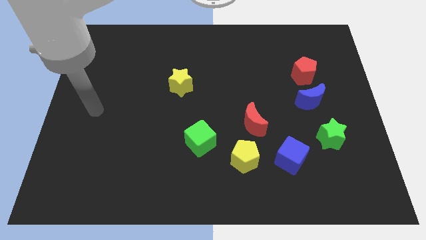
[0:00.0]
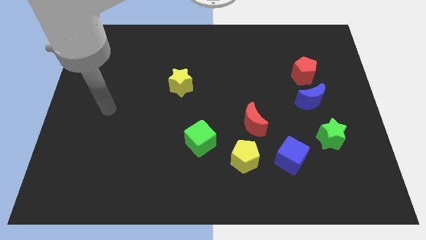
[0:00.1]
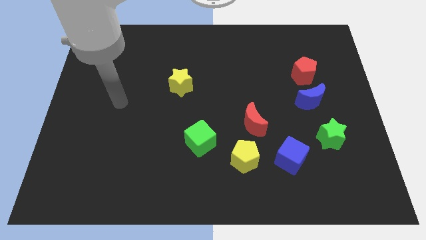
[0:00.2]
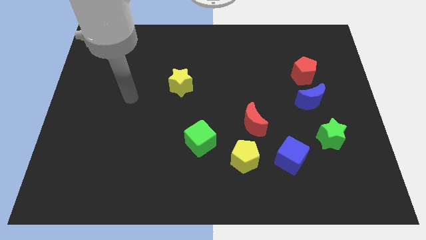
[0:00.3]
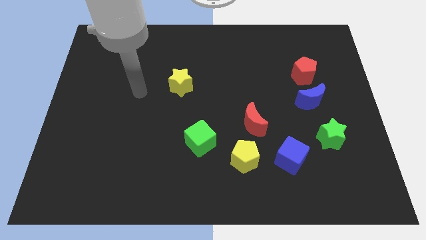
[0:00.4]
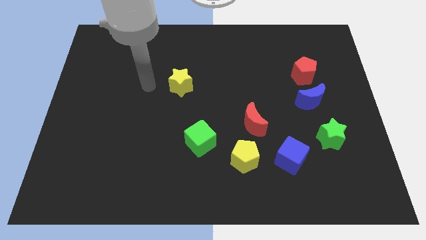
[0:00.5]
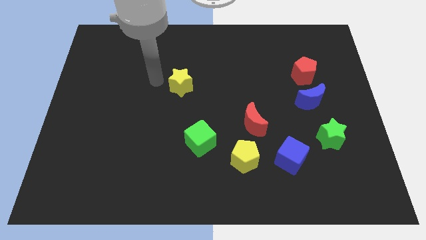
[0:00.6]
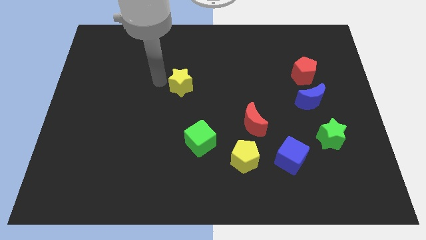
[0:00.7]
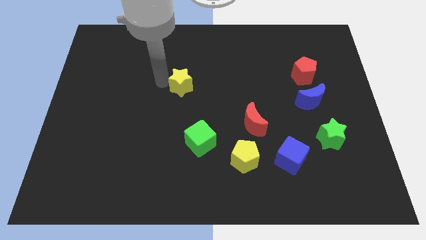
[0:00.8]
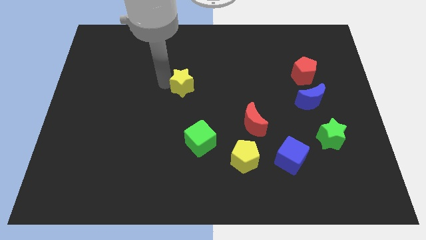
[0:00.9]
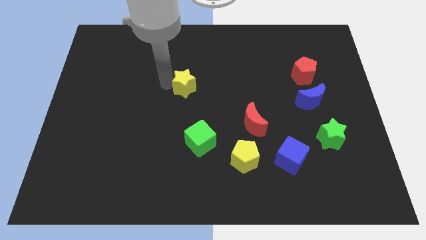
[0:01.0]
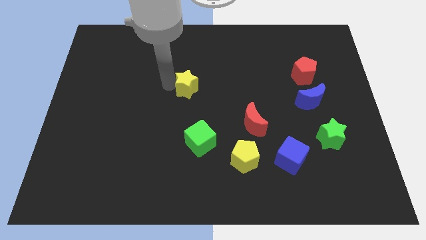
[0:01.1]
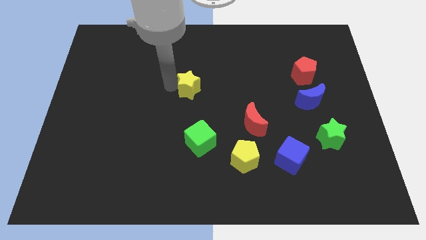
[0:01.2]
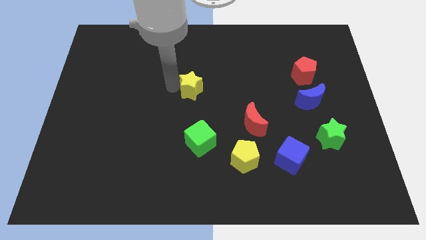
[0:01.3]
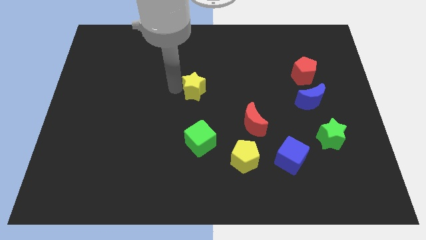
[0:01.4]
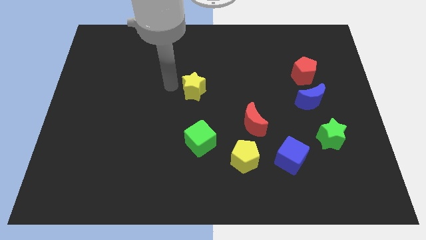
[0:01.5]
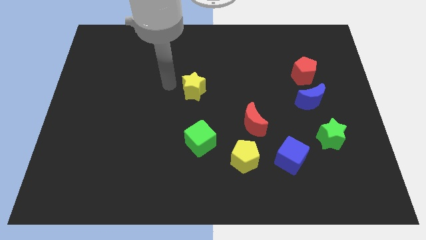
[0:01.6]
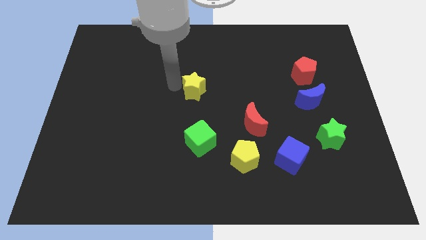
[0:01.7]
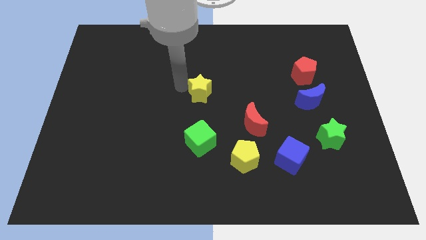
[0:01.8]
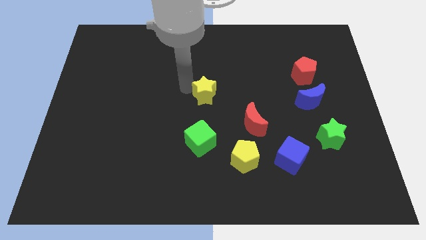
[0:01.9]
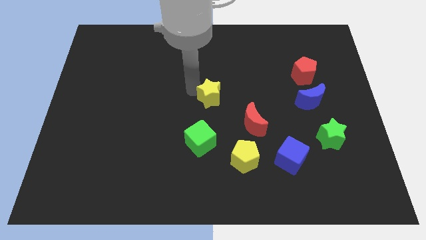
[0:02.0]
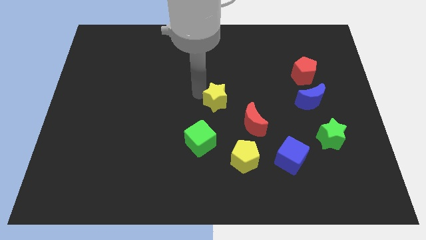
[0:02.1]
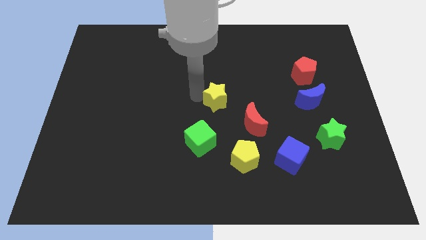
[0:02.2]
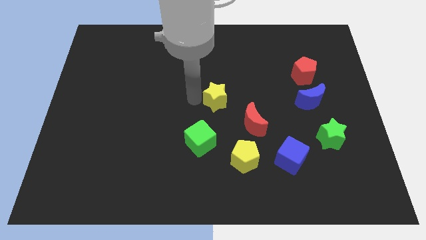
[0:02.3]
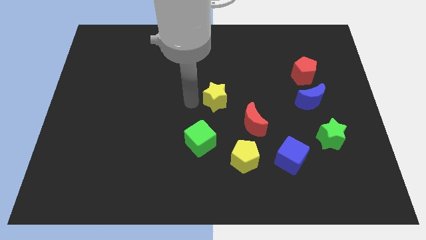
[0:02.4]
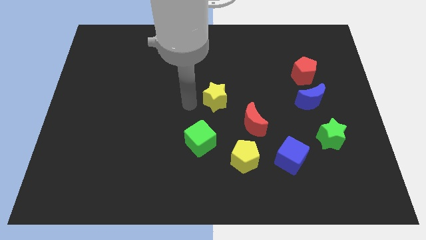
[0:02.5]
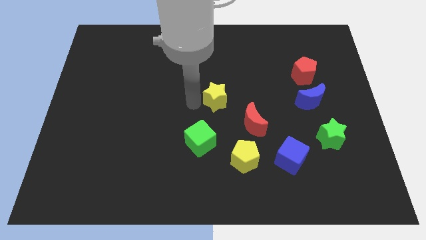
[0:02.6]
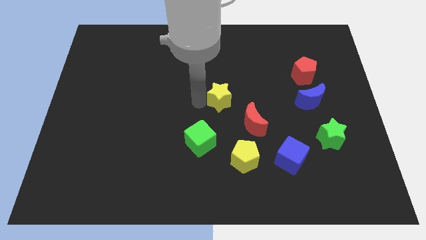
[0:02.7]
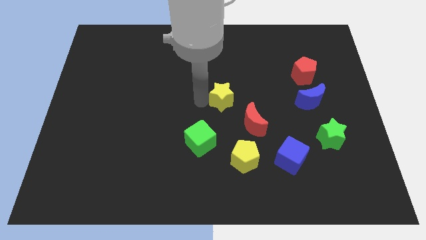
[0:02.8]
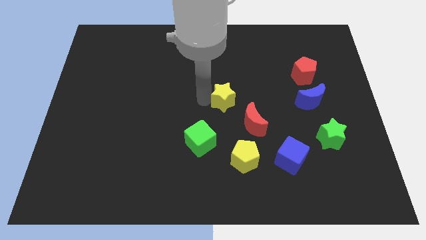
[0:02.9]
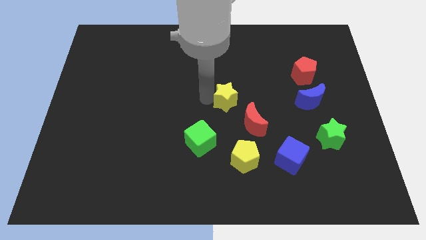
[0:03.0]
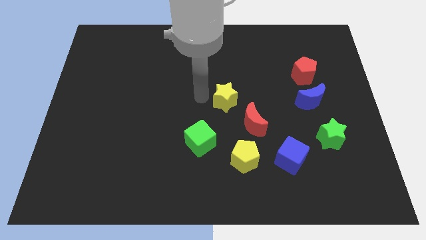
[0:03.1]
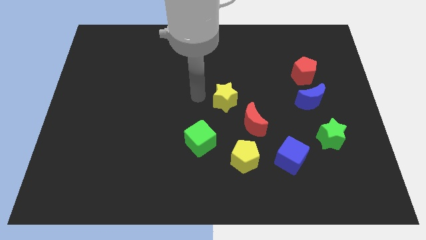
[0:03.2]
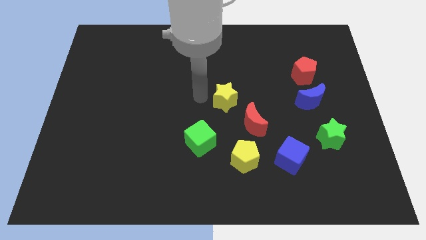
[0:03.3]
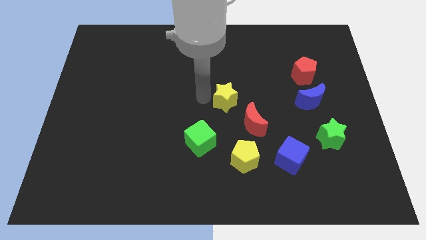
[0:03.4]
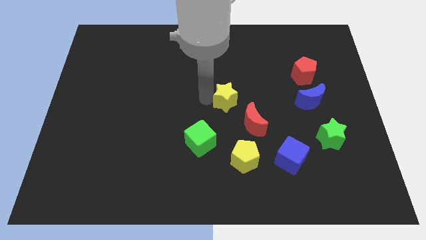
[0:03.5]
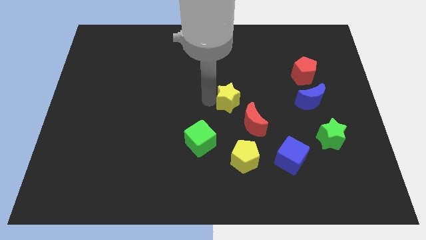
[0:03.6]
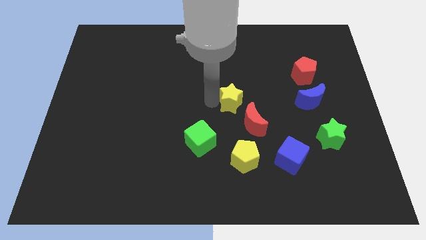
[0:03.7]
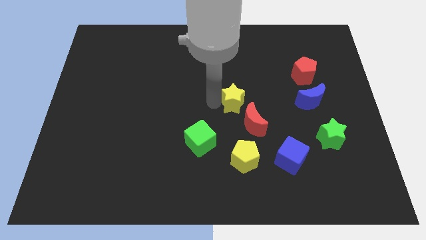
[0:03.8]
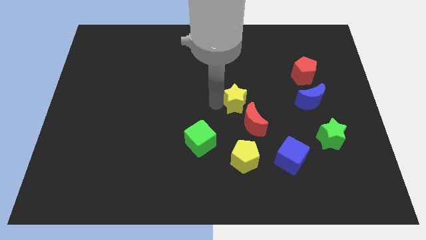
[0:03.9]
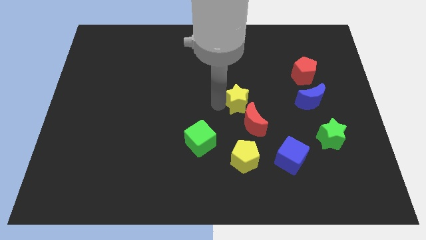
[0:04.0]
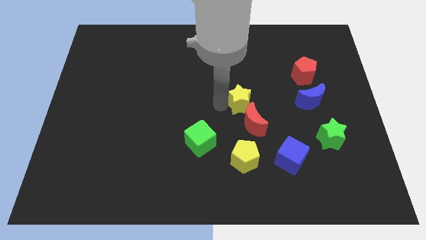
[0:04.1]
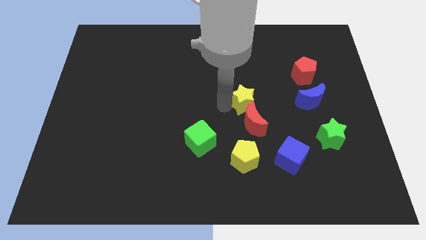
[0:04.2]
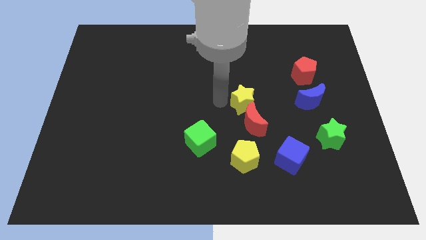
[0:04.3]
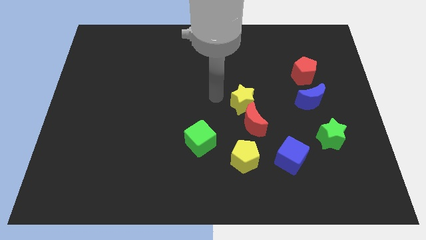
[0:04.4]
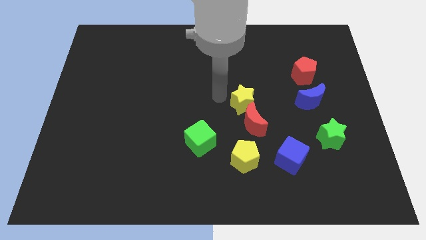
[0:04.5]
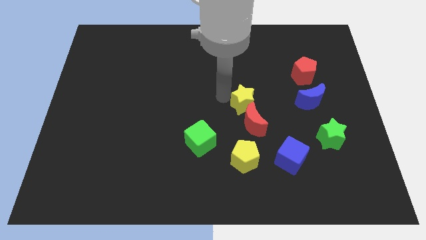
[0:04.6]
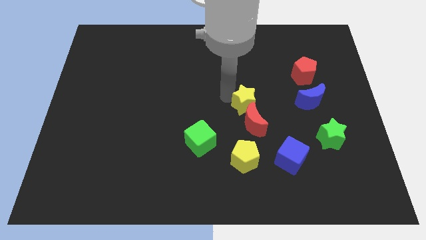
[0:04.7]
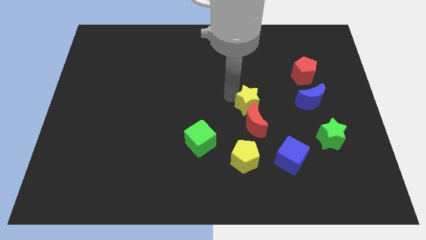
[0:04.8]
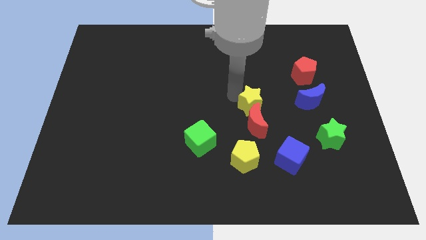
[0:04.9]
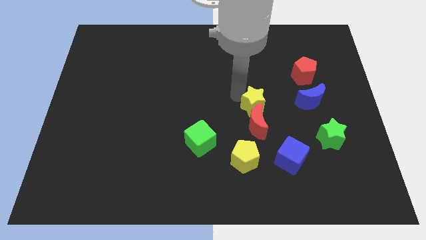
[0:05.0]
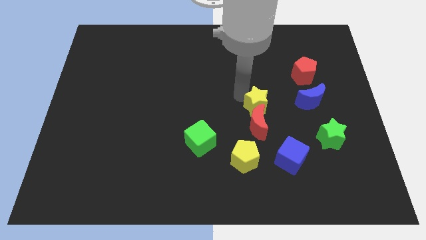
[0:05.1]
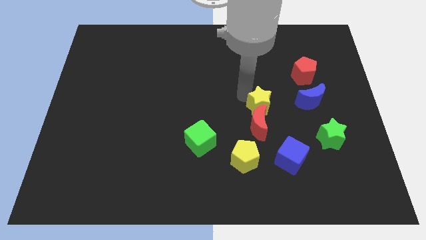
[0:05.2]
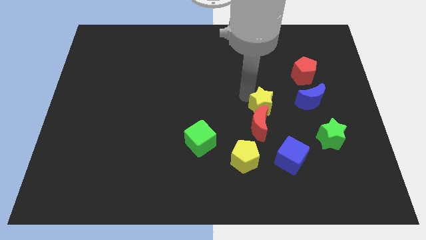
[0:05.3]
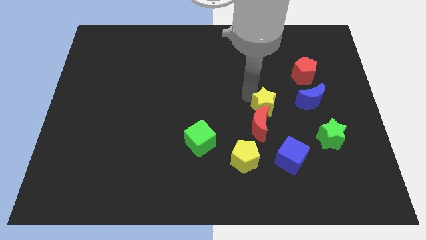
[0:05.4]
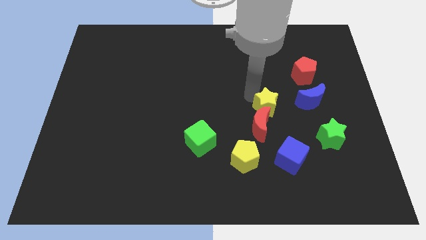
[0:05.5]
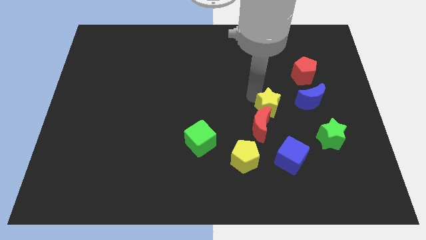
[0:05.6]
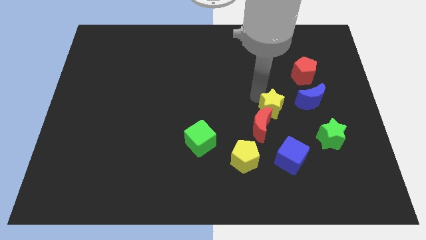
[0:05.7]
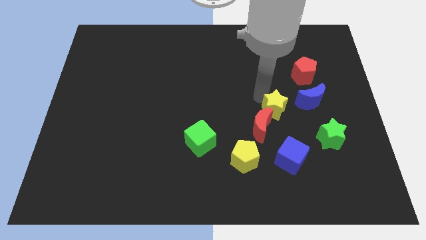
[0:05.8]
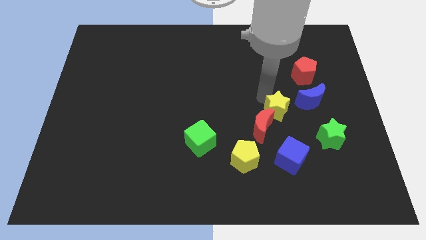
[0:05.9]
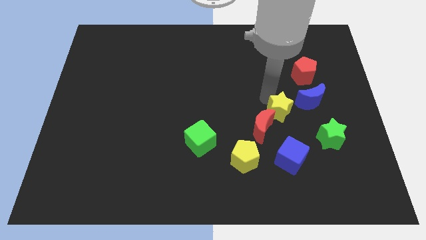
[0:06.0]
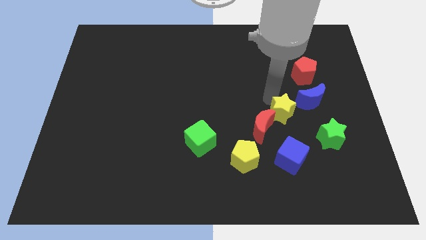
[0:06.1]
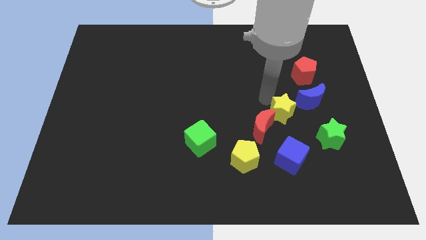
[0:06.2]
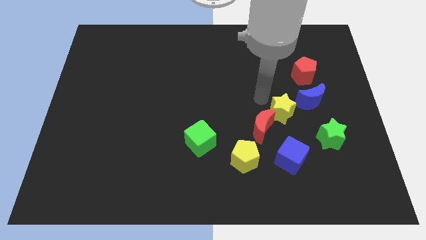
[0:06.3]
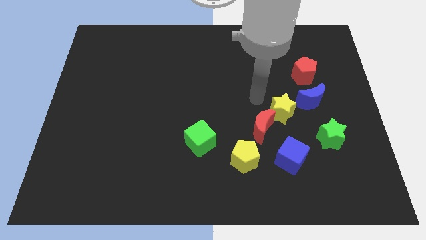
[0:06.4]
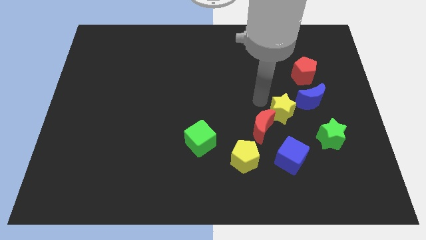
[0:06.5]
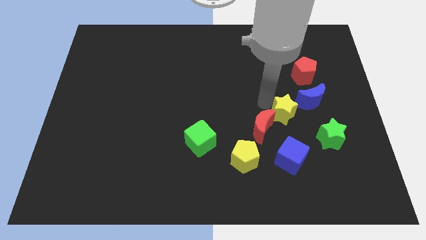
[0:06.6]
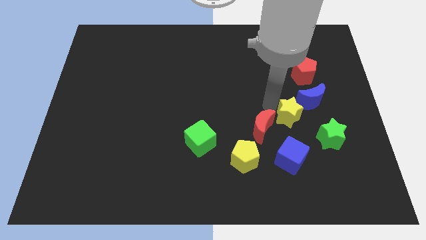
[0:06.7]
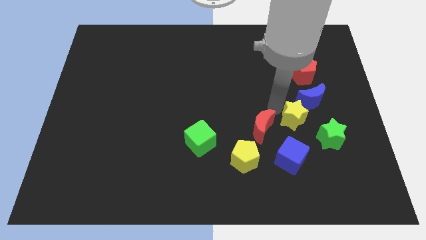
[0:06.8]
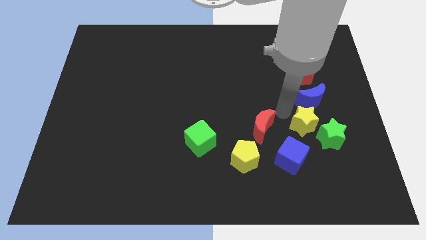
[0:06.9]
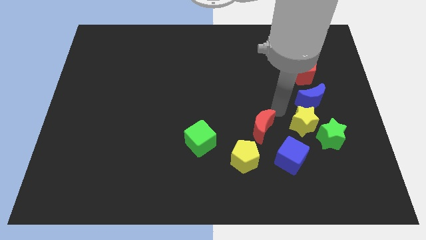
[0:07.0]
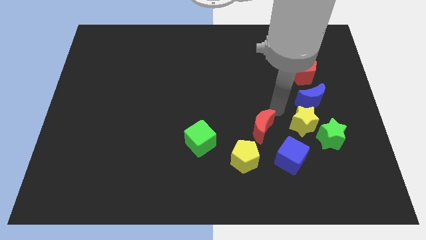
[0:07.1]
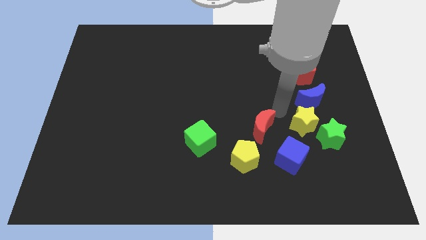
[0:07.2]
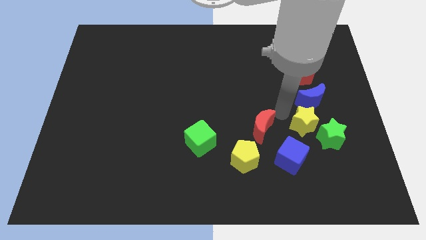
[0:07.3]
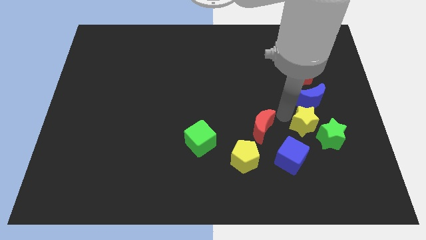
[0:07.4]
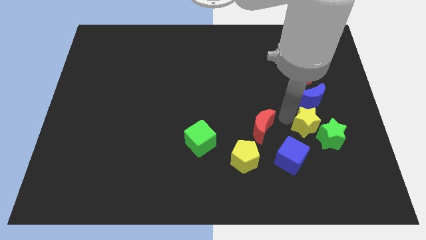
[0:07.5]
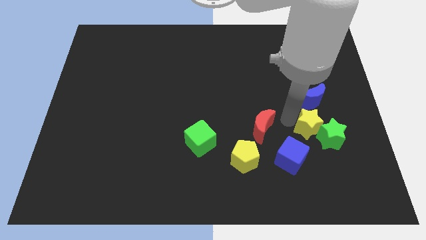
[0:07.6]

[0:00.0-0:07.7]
push the yellow star towards the green star
